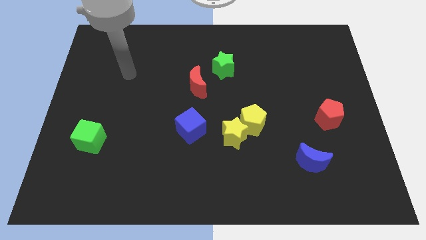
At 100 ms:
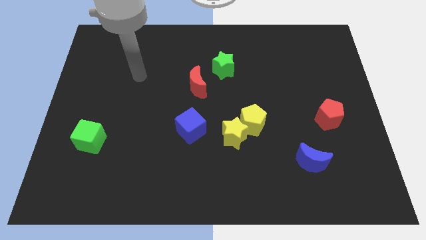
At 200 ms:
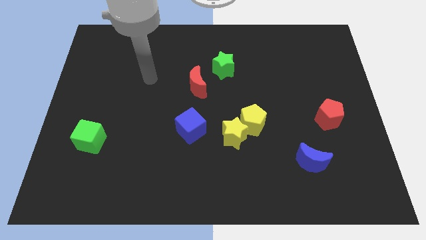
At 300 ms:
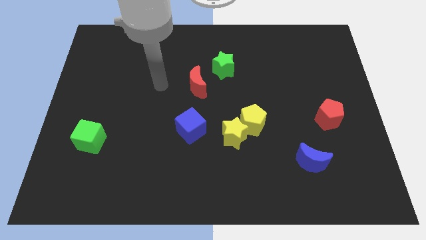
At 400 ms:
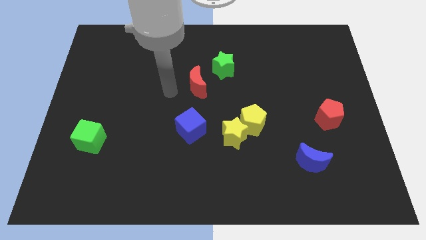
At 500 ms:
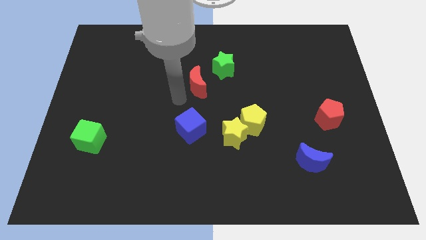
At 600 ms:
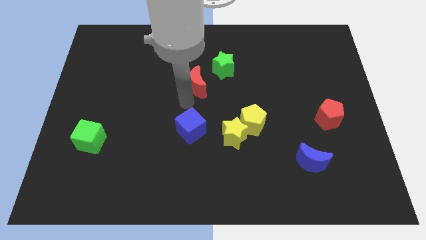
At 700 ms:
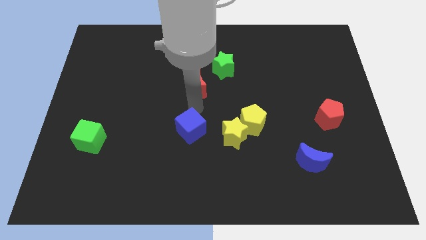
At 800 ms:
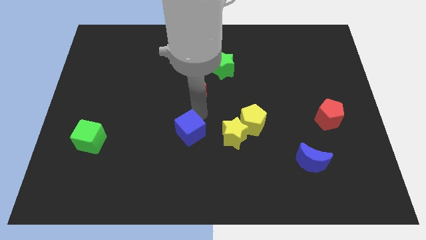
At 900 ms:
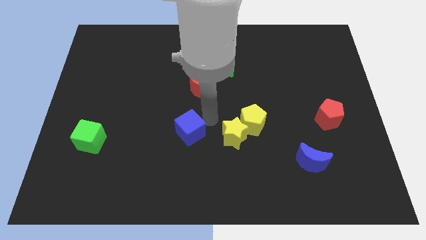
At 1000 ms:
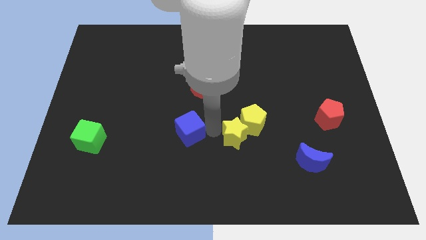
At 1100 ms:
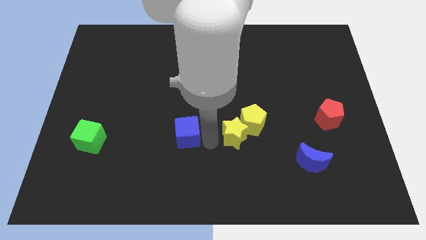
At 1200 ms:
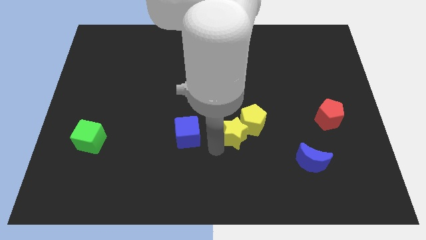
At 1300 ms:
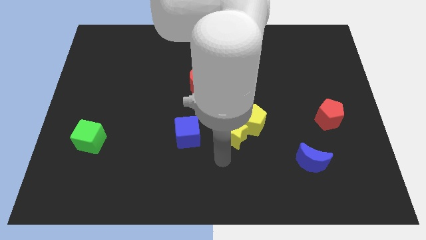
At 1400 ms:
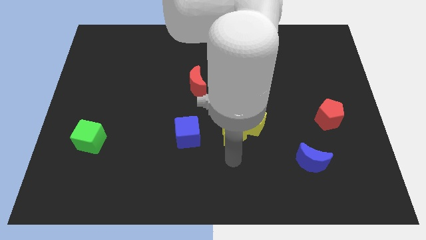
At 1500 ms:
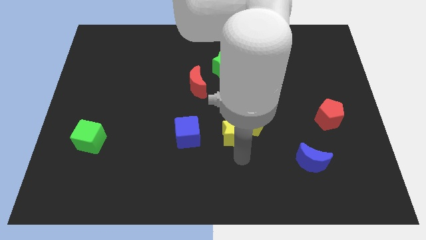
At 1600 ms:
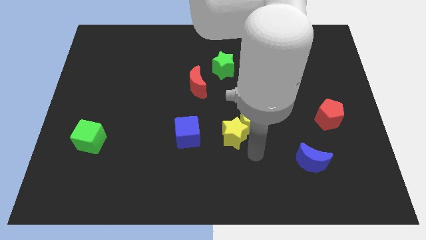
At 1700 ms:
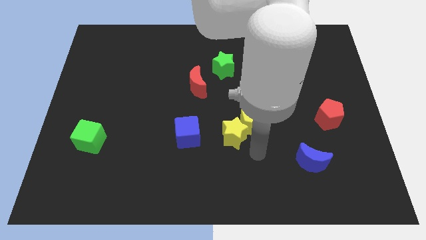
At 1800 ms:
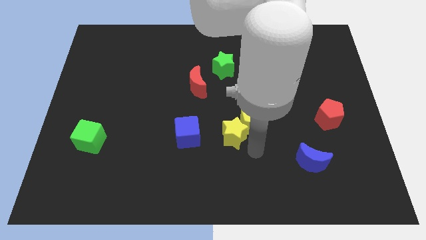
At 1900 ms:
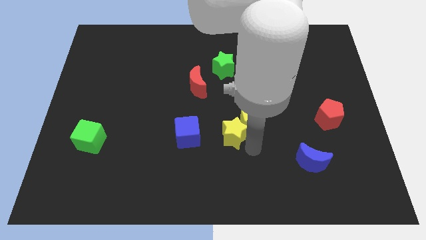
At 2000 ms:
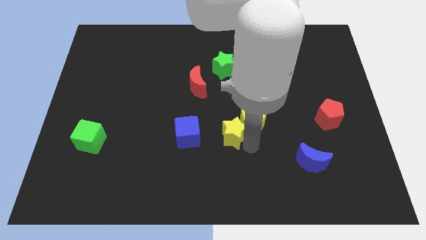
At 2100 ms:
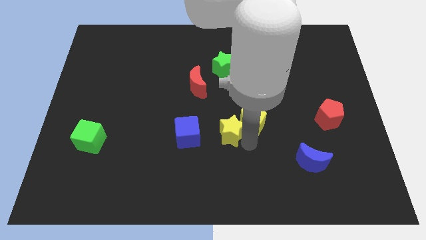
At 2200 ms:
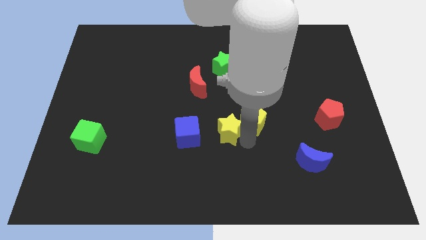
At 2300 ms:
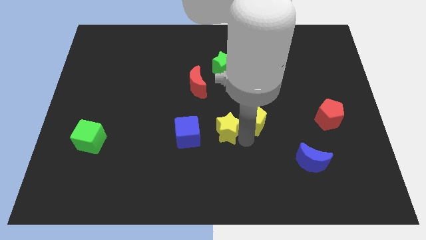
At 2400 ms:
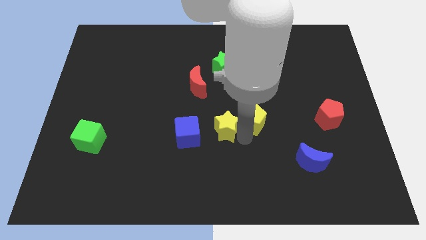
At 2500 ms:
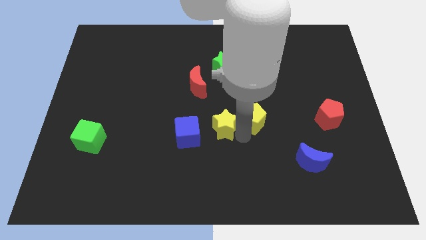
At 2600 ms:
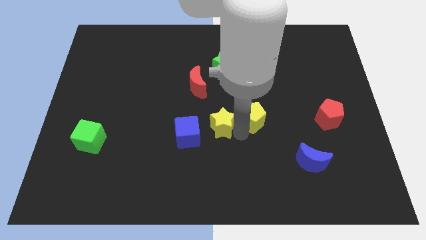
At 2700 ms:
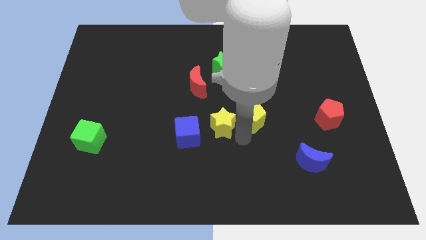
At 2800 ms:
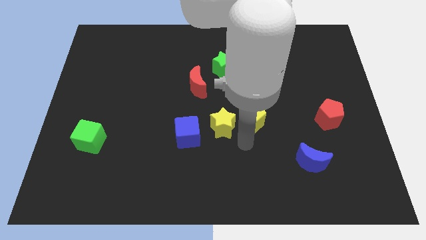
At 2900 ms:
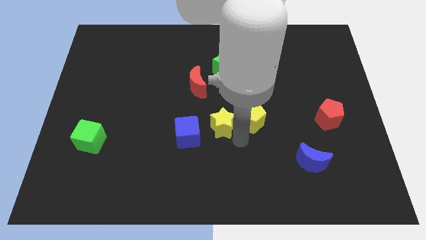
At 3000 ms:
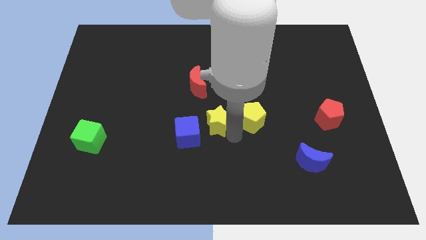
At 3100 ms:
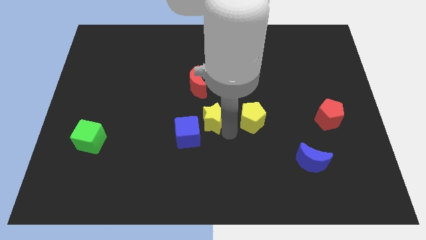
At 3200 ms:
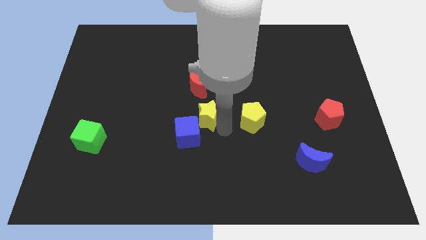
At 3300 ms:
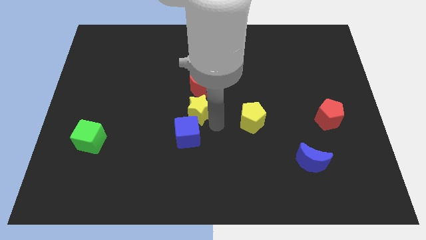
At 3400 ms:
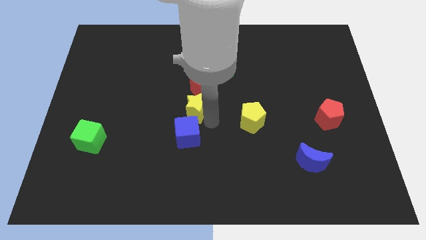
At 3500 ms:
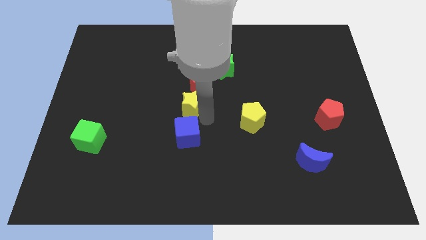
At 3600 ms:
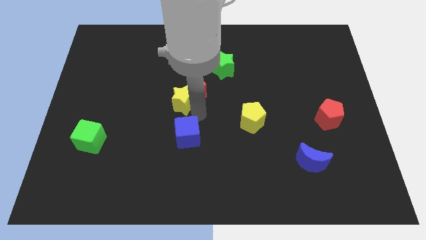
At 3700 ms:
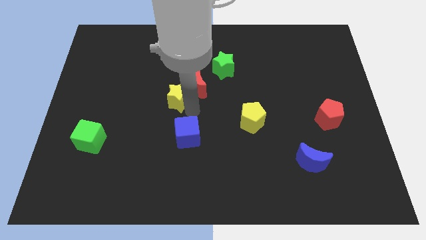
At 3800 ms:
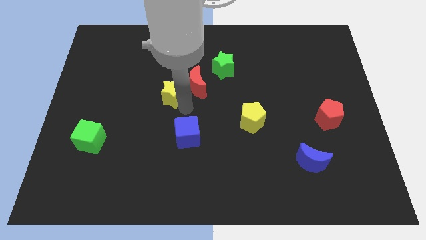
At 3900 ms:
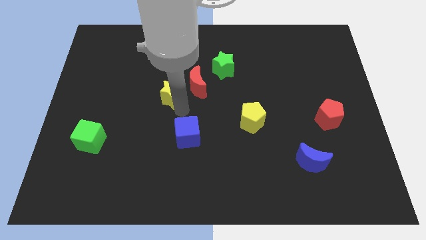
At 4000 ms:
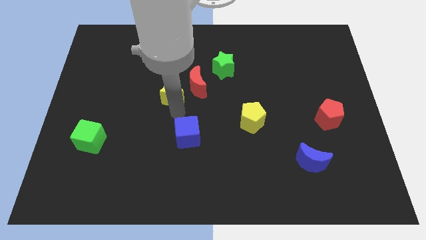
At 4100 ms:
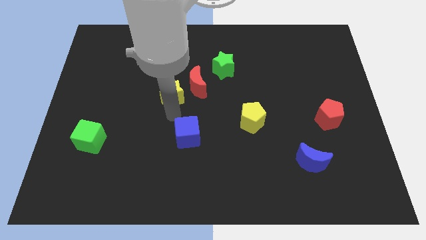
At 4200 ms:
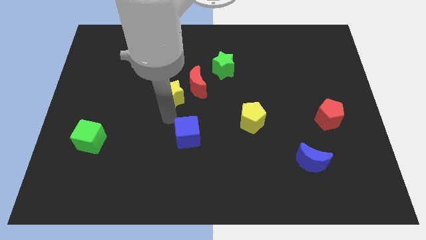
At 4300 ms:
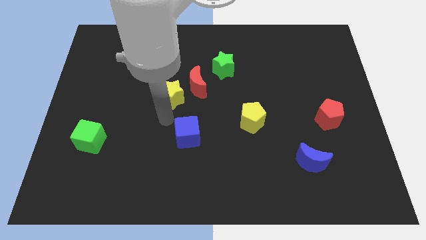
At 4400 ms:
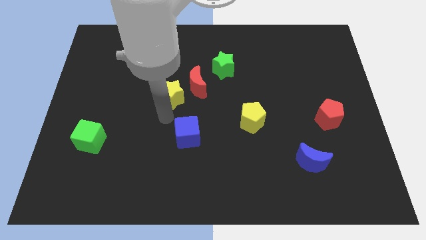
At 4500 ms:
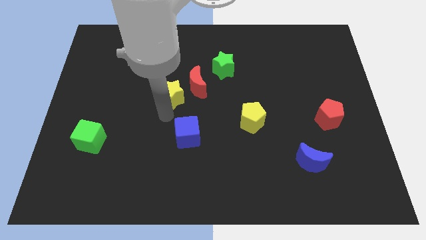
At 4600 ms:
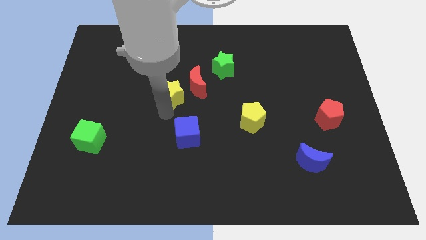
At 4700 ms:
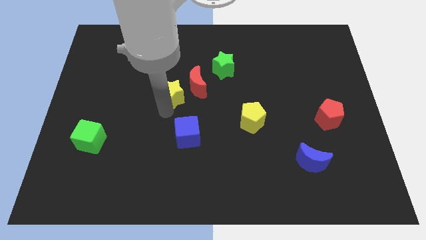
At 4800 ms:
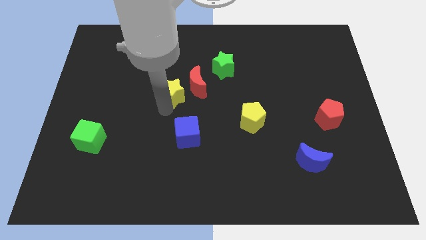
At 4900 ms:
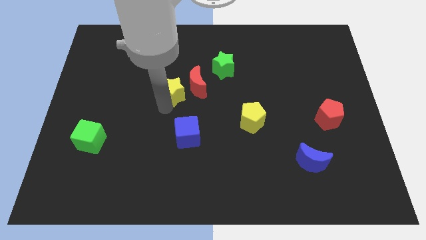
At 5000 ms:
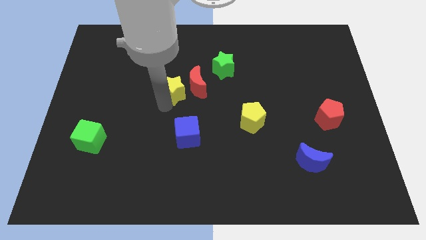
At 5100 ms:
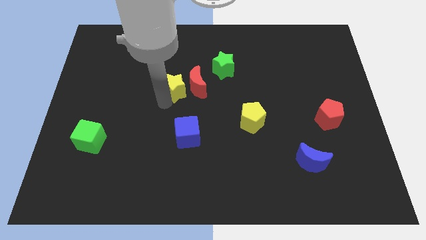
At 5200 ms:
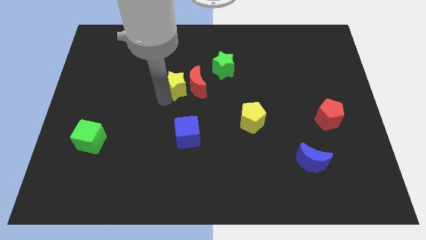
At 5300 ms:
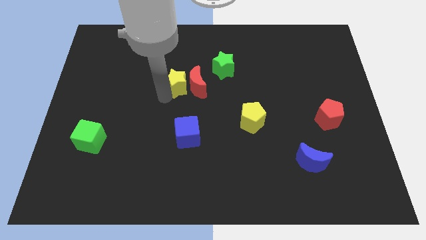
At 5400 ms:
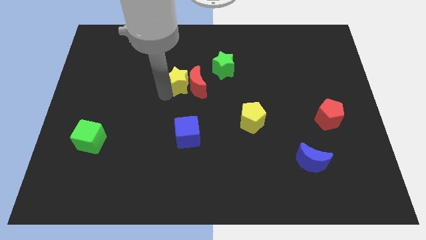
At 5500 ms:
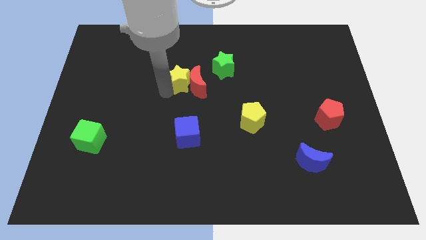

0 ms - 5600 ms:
move the yellow star just left of the green star

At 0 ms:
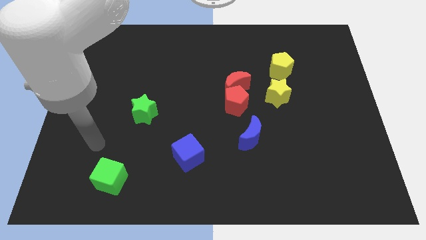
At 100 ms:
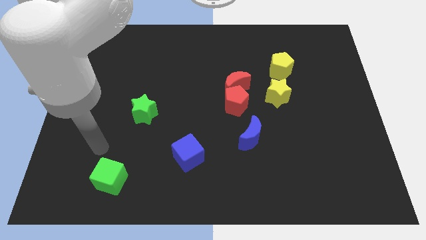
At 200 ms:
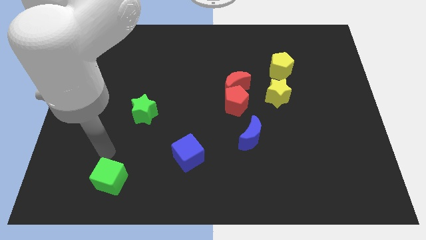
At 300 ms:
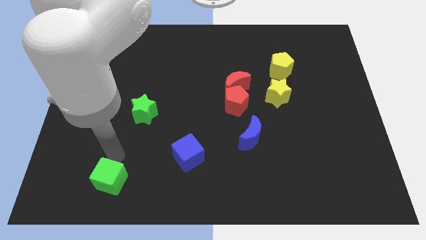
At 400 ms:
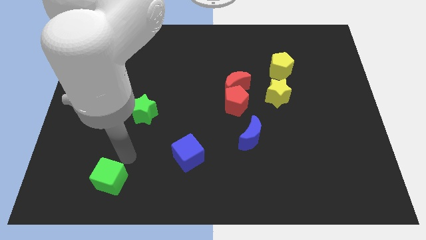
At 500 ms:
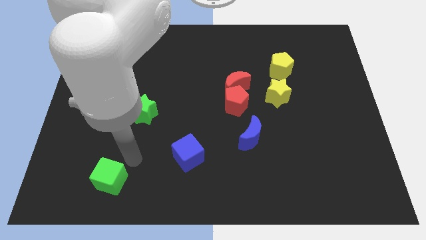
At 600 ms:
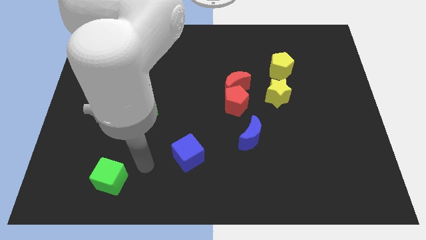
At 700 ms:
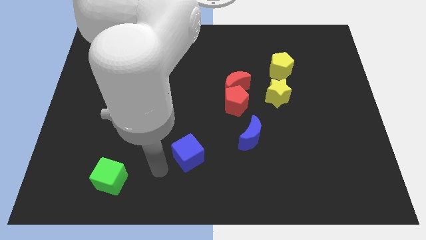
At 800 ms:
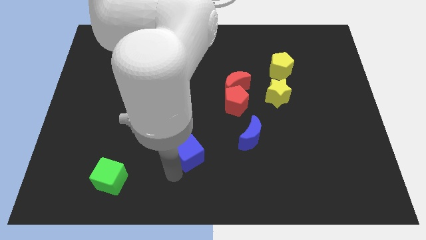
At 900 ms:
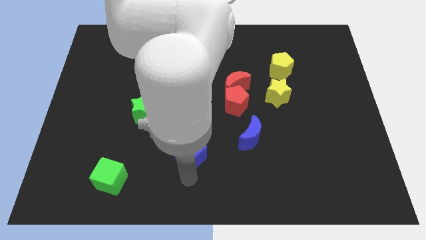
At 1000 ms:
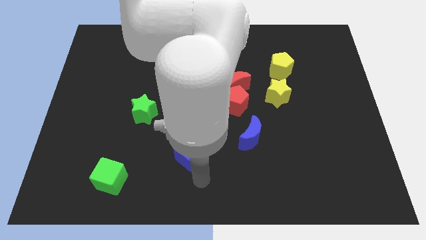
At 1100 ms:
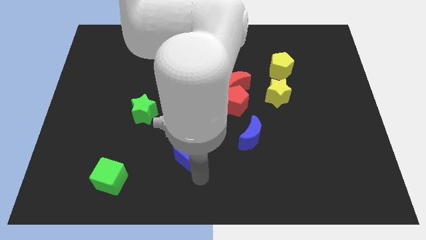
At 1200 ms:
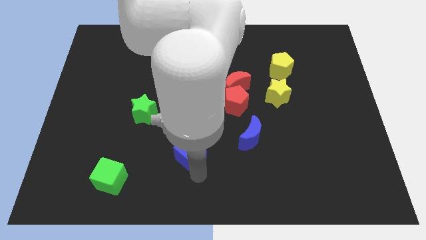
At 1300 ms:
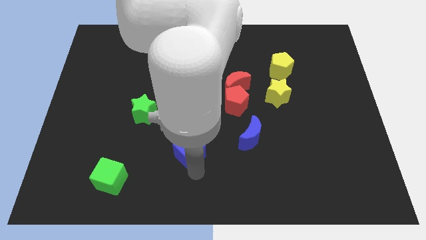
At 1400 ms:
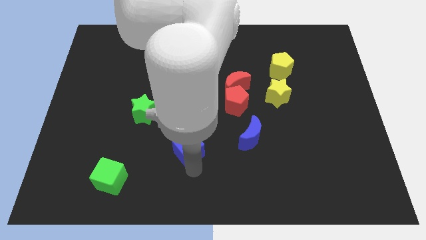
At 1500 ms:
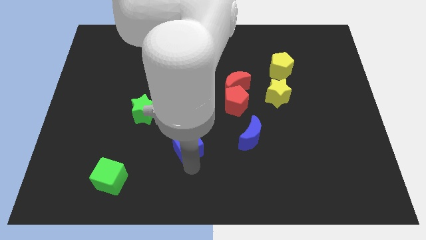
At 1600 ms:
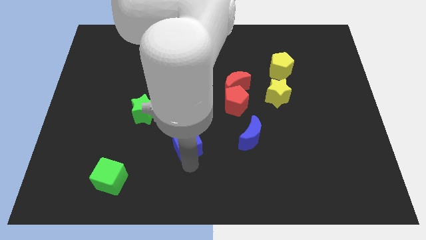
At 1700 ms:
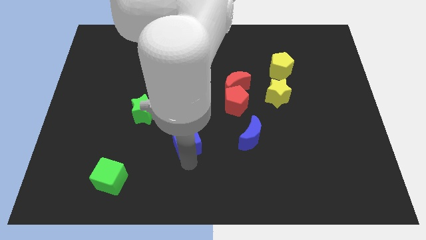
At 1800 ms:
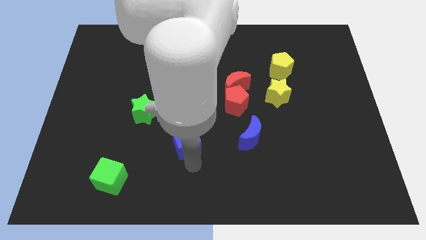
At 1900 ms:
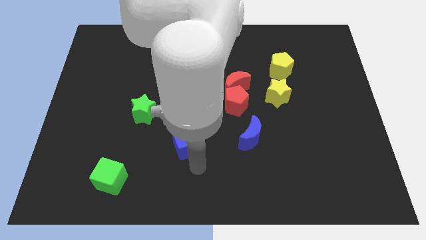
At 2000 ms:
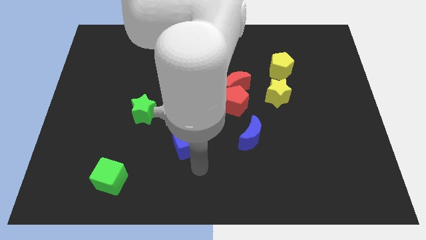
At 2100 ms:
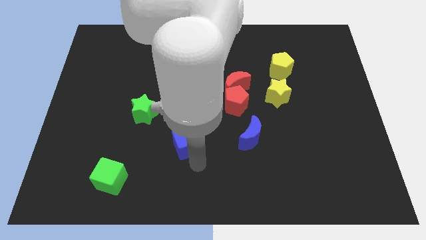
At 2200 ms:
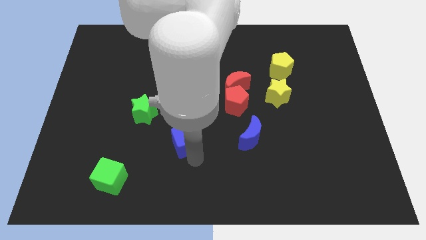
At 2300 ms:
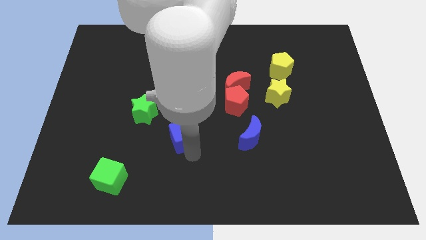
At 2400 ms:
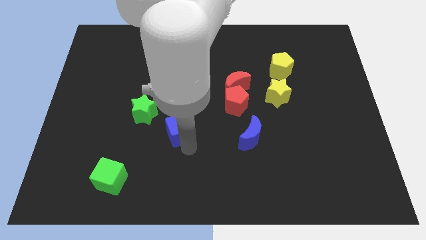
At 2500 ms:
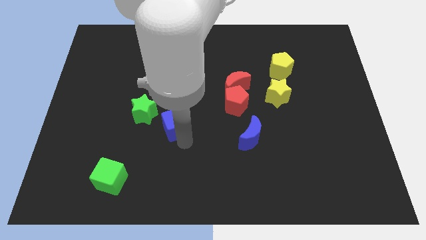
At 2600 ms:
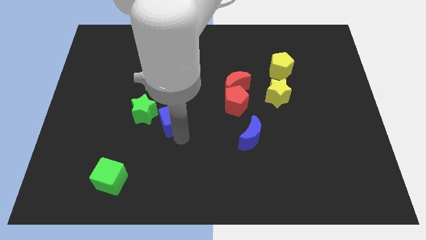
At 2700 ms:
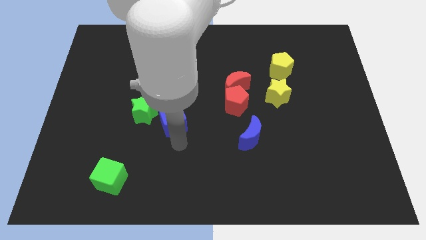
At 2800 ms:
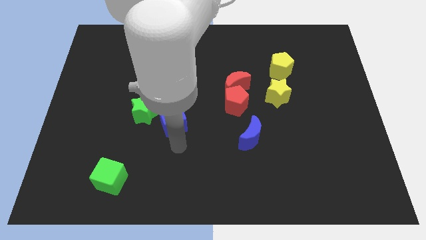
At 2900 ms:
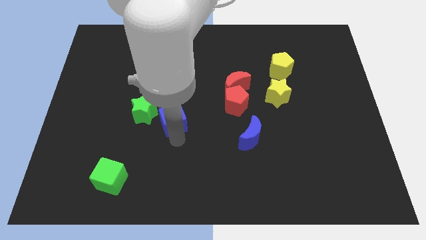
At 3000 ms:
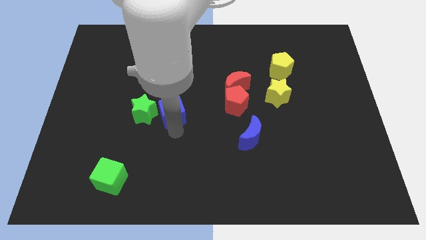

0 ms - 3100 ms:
put the blue cube diagonally up and to the right of the green star
